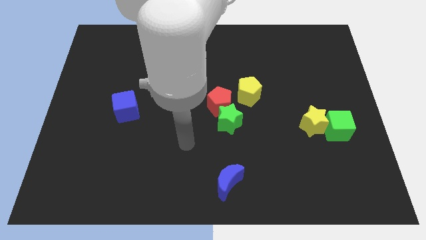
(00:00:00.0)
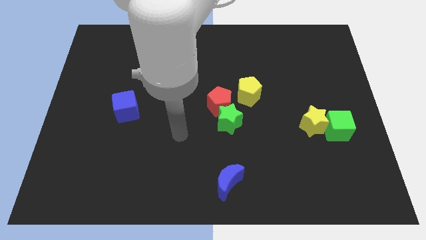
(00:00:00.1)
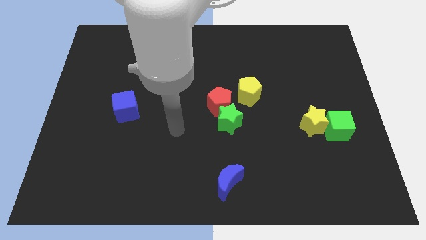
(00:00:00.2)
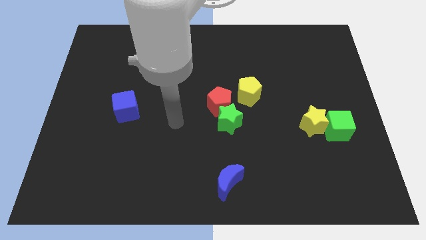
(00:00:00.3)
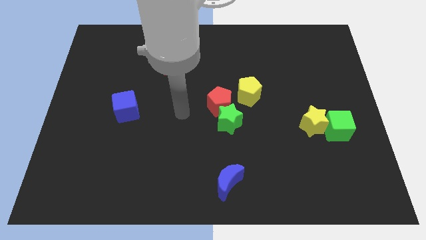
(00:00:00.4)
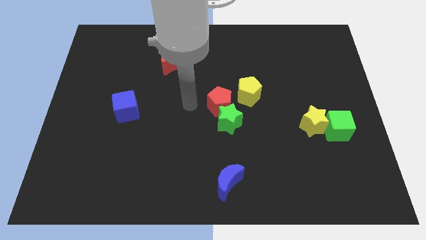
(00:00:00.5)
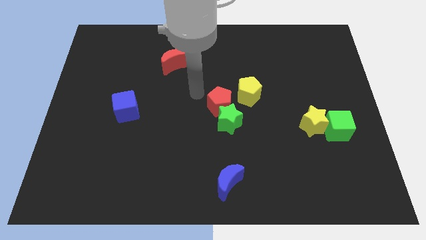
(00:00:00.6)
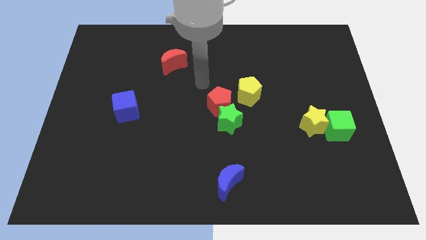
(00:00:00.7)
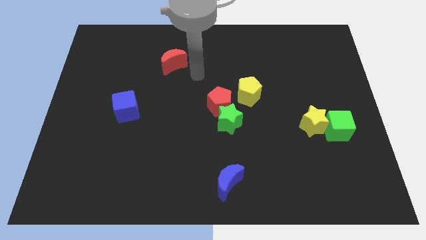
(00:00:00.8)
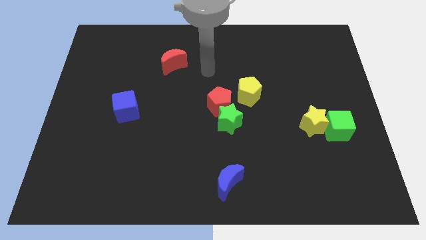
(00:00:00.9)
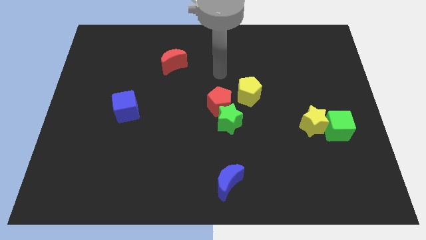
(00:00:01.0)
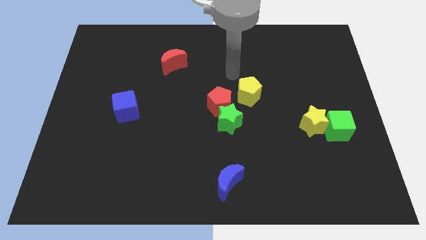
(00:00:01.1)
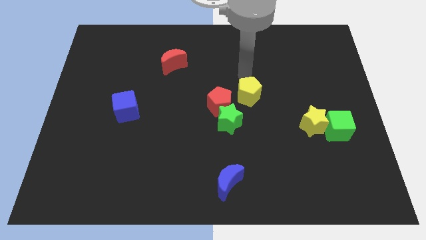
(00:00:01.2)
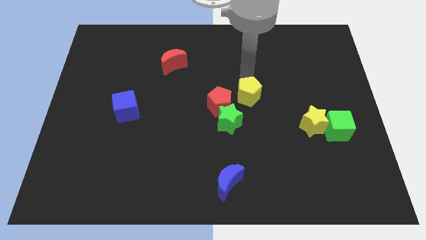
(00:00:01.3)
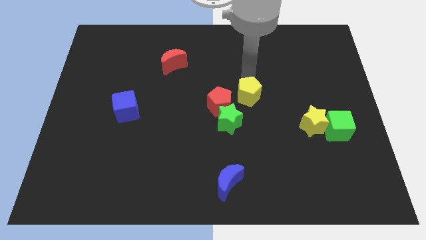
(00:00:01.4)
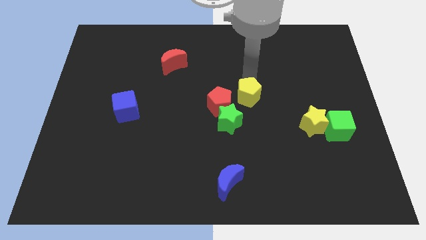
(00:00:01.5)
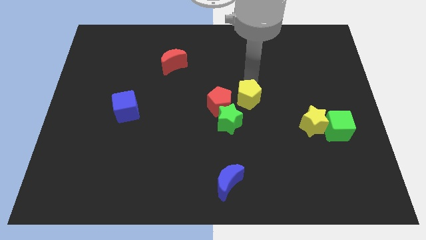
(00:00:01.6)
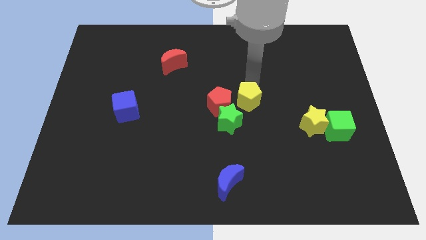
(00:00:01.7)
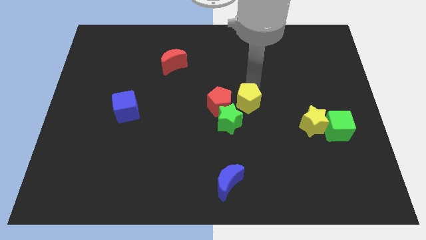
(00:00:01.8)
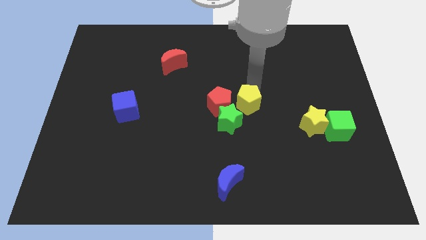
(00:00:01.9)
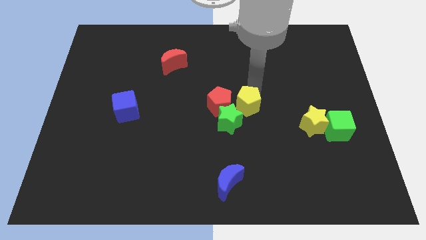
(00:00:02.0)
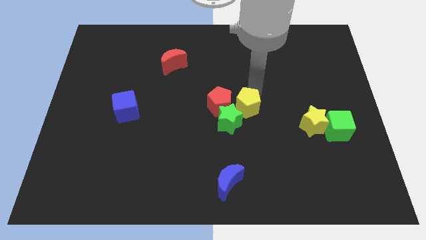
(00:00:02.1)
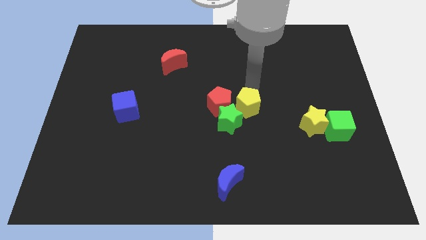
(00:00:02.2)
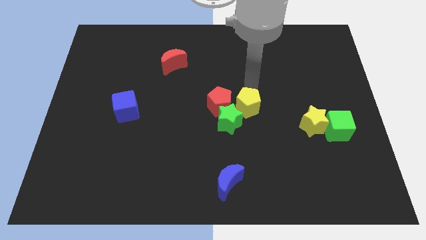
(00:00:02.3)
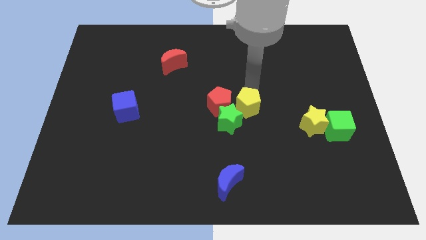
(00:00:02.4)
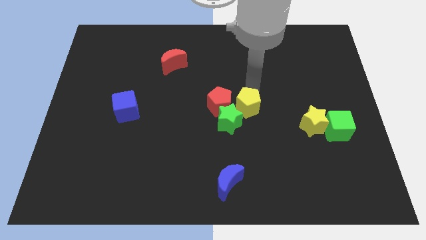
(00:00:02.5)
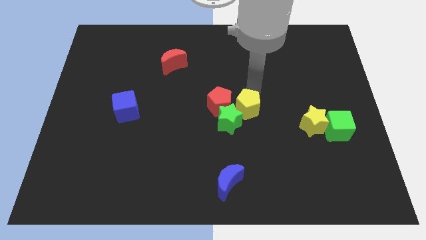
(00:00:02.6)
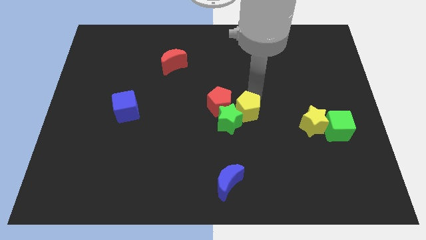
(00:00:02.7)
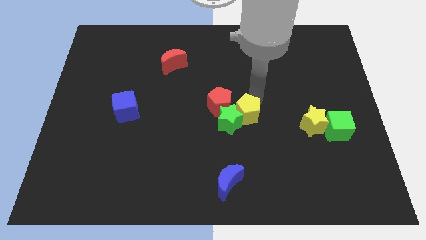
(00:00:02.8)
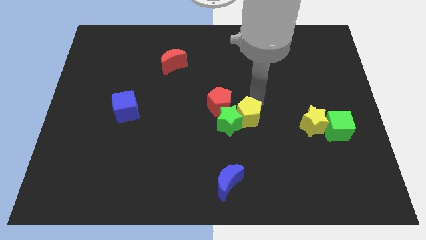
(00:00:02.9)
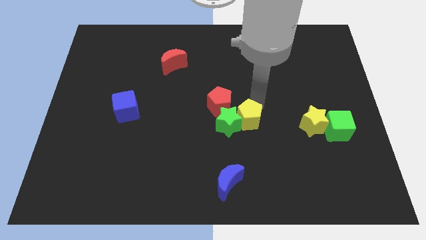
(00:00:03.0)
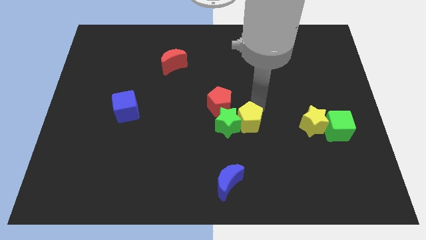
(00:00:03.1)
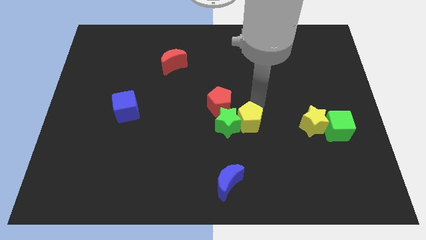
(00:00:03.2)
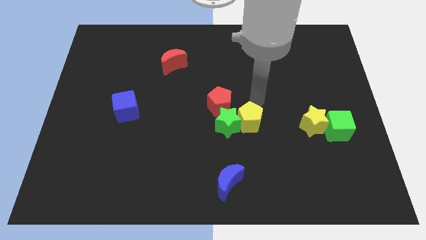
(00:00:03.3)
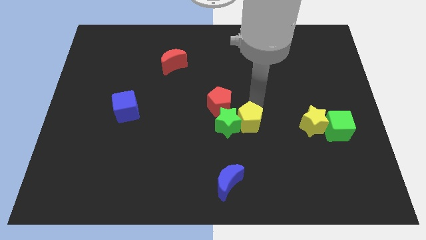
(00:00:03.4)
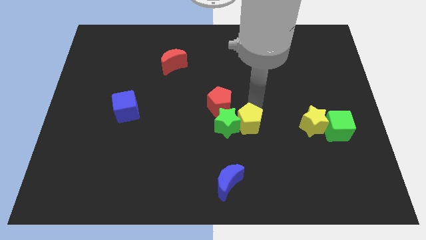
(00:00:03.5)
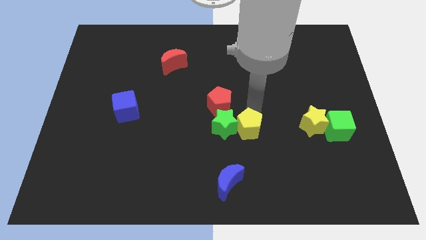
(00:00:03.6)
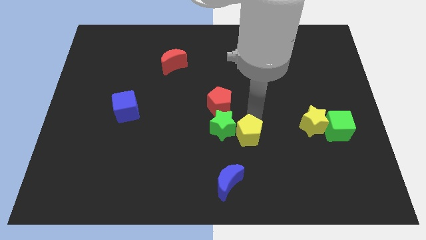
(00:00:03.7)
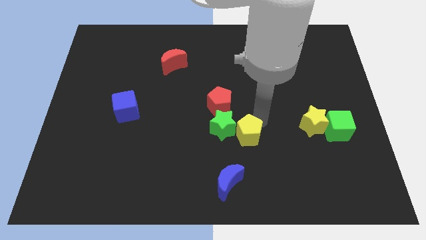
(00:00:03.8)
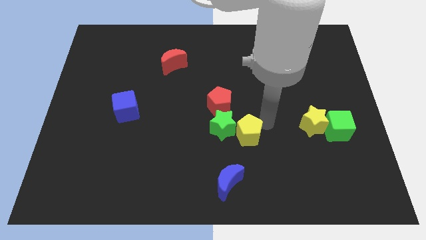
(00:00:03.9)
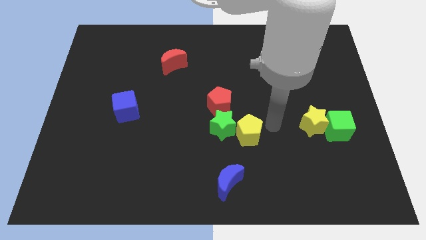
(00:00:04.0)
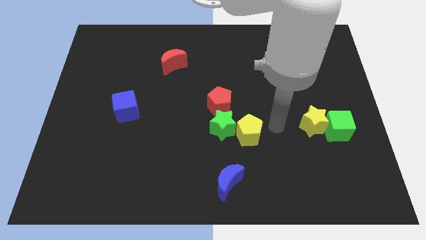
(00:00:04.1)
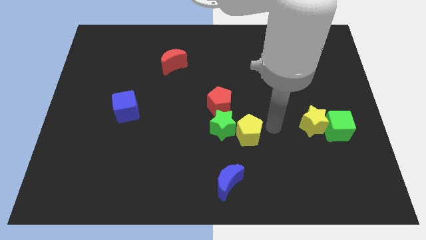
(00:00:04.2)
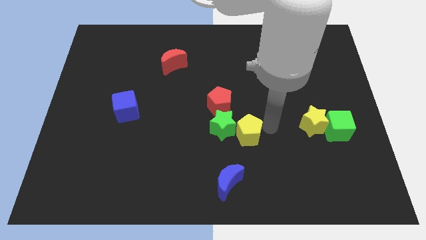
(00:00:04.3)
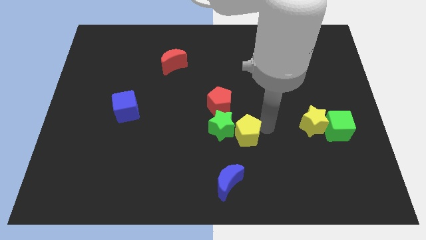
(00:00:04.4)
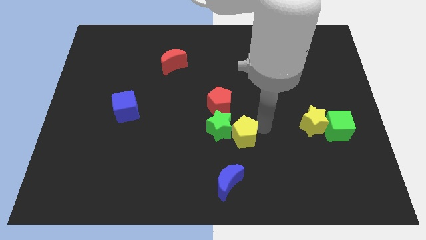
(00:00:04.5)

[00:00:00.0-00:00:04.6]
slide the yellow pentagon downwards and left diagonally a little bit

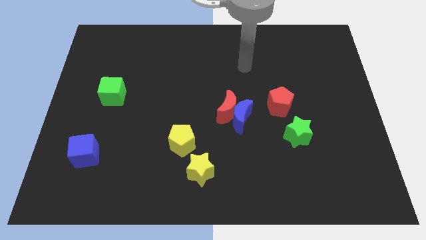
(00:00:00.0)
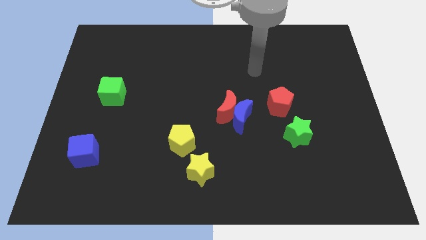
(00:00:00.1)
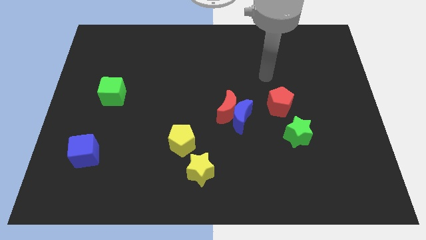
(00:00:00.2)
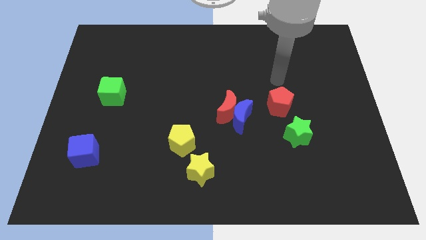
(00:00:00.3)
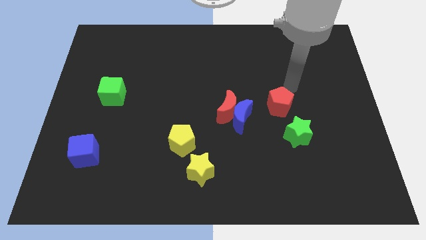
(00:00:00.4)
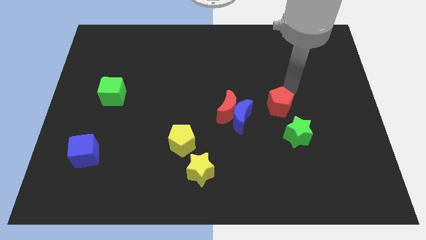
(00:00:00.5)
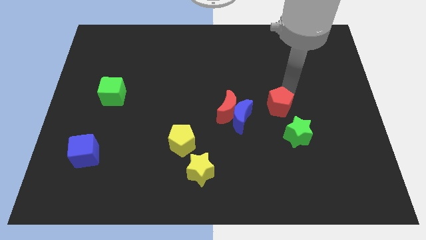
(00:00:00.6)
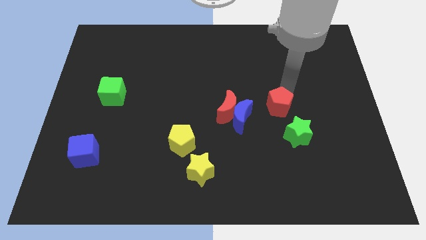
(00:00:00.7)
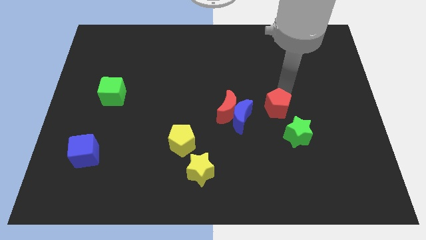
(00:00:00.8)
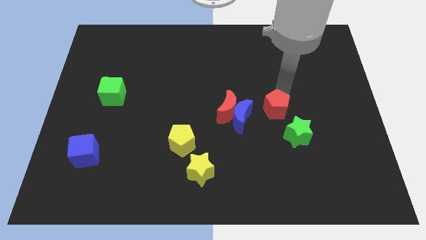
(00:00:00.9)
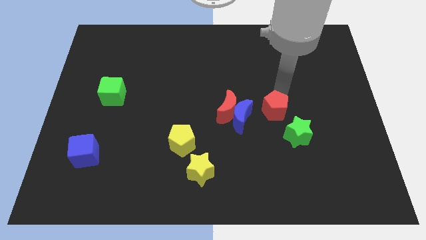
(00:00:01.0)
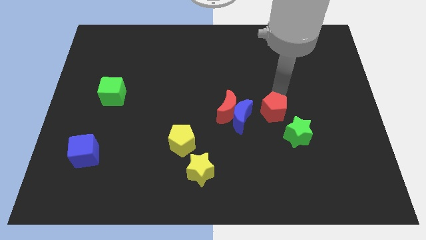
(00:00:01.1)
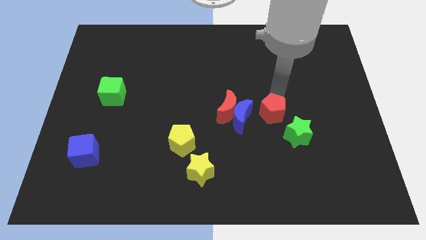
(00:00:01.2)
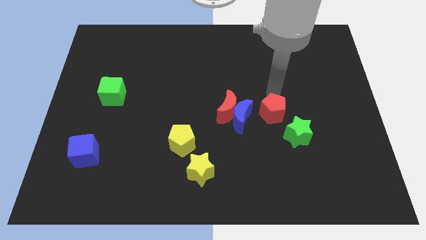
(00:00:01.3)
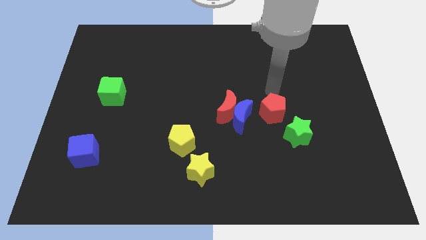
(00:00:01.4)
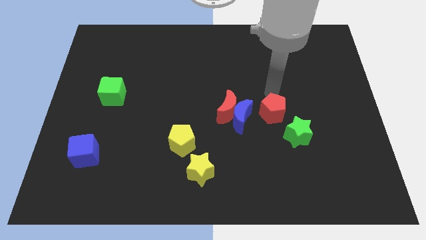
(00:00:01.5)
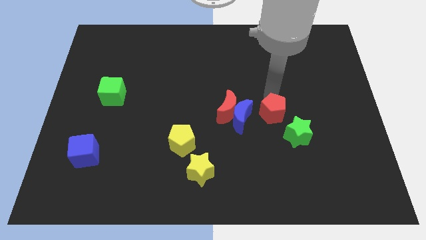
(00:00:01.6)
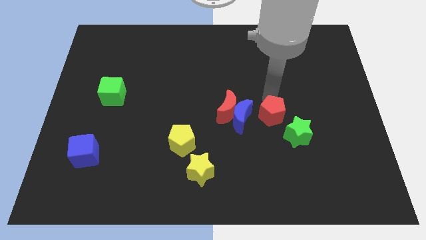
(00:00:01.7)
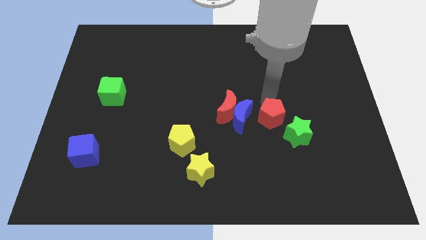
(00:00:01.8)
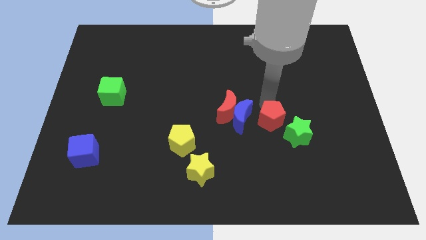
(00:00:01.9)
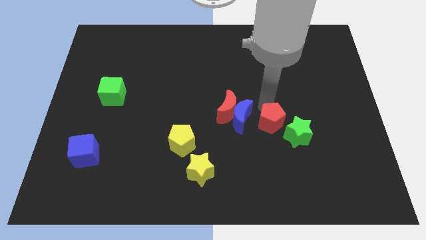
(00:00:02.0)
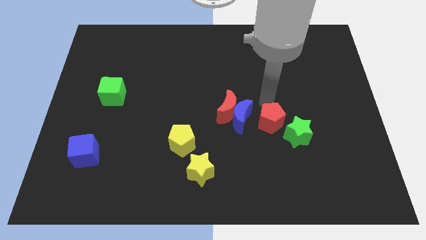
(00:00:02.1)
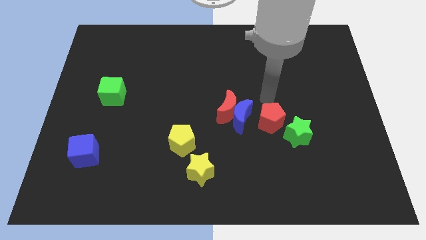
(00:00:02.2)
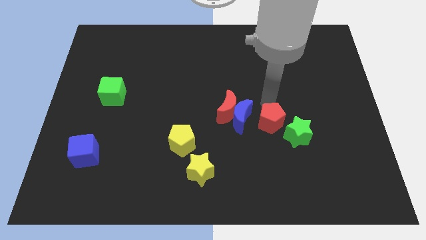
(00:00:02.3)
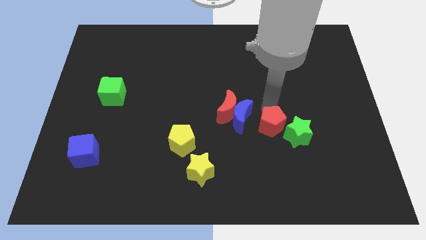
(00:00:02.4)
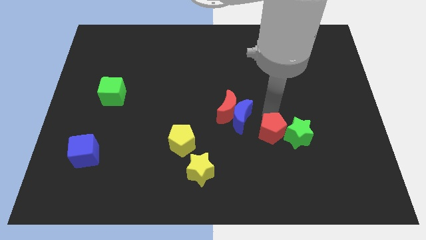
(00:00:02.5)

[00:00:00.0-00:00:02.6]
push the red pentagon downwards a little

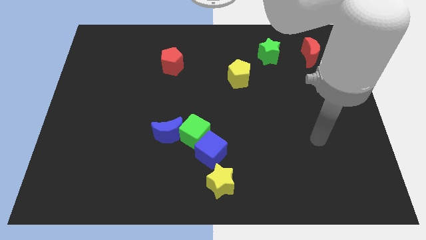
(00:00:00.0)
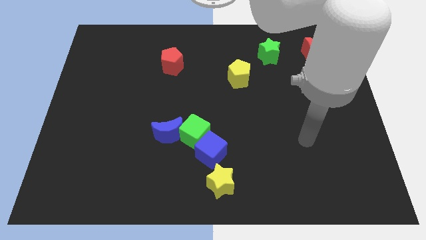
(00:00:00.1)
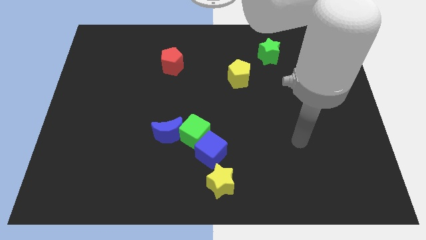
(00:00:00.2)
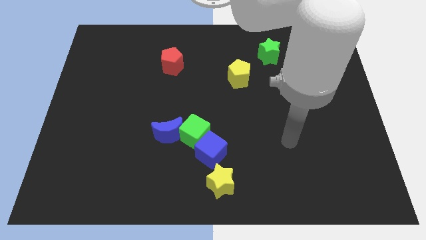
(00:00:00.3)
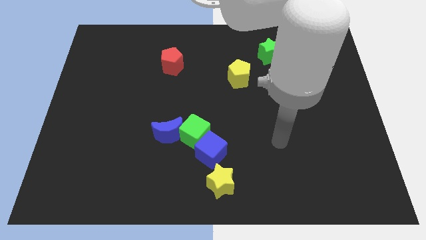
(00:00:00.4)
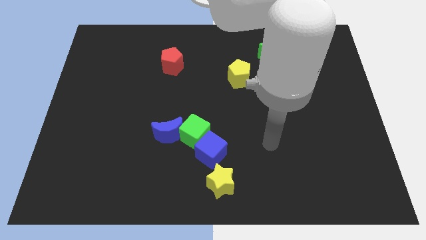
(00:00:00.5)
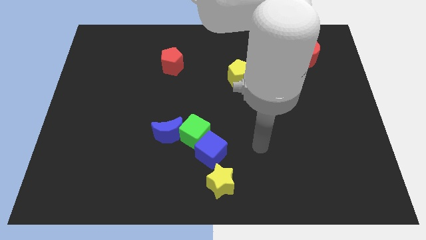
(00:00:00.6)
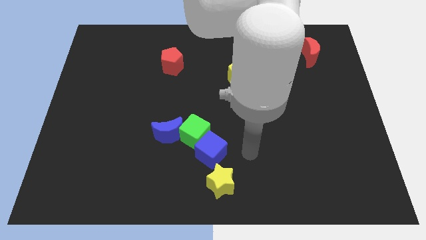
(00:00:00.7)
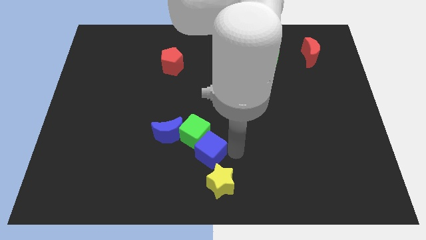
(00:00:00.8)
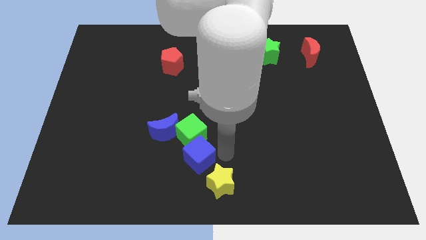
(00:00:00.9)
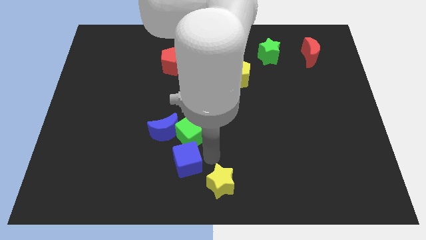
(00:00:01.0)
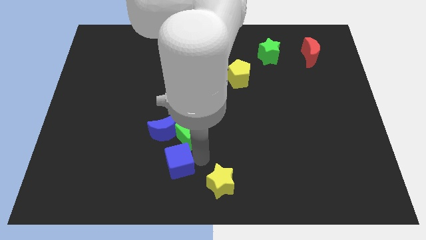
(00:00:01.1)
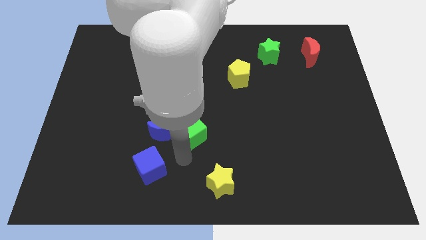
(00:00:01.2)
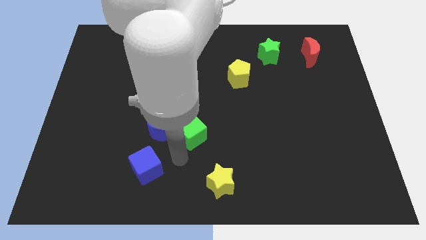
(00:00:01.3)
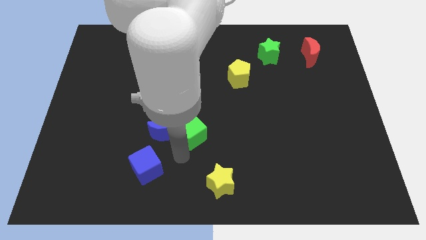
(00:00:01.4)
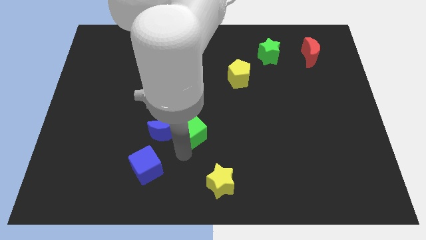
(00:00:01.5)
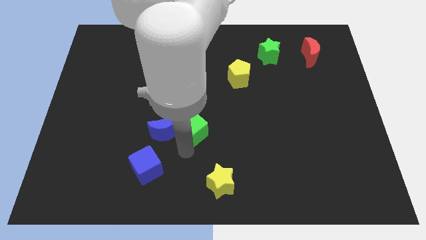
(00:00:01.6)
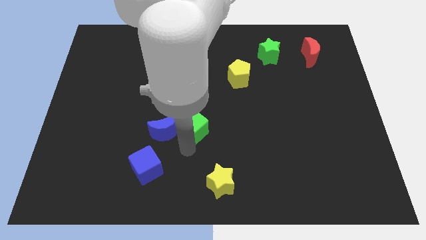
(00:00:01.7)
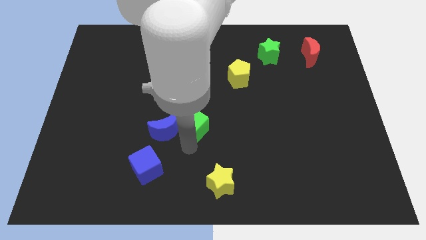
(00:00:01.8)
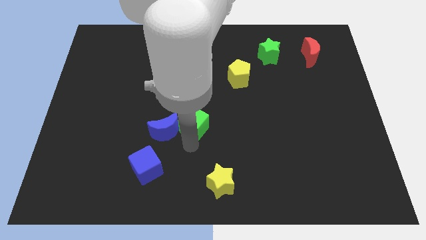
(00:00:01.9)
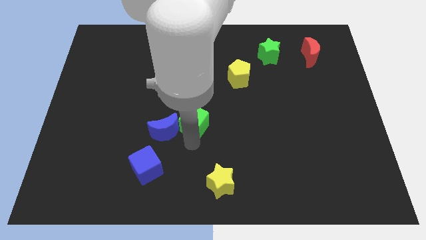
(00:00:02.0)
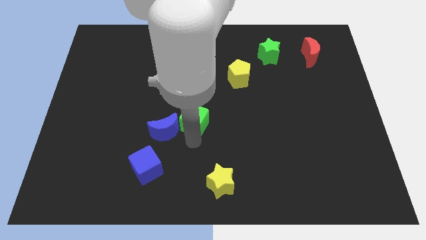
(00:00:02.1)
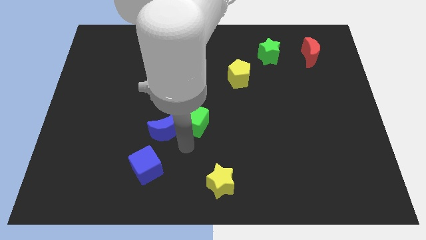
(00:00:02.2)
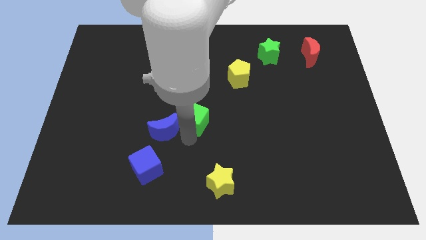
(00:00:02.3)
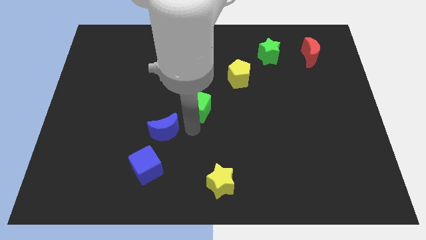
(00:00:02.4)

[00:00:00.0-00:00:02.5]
slightly push the green cube upwards
